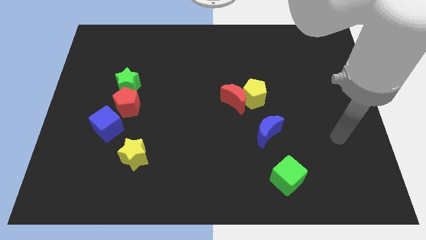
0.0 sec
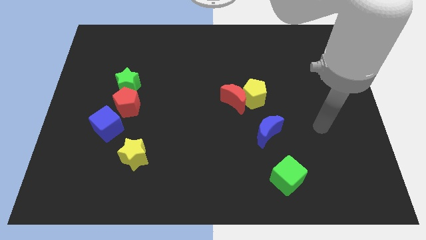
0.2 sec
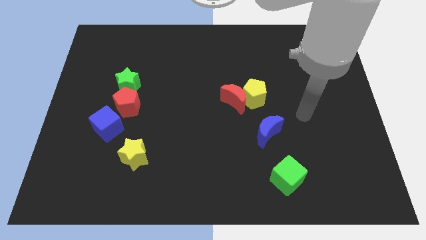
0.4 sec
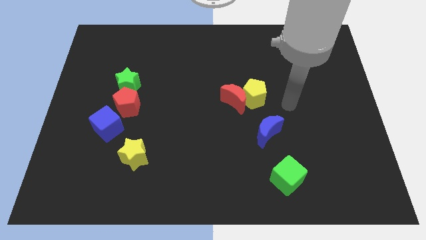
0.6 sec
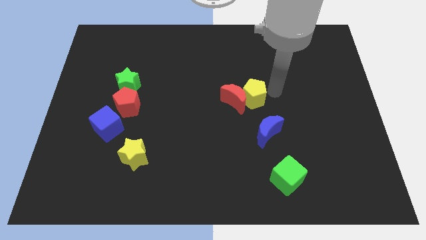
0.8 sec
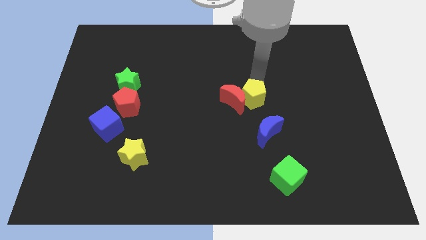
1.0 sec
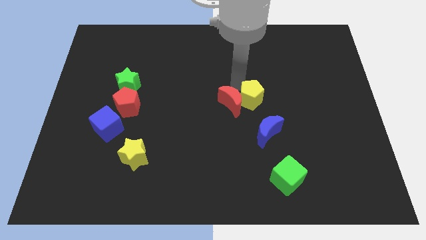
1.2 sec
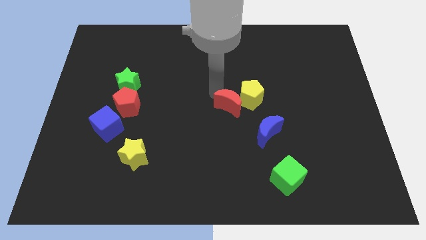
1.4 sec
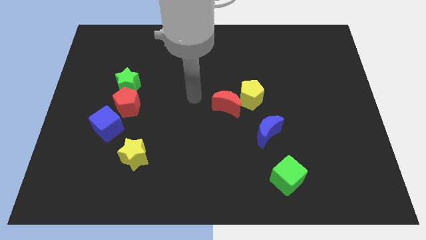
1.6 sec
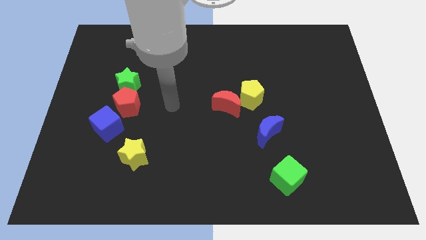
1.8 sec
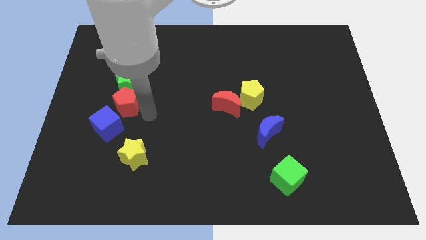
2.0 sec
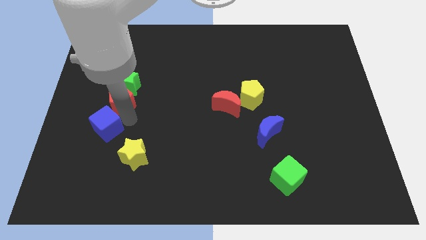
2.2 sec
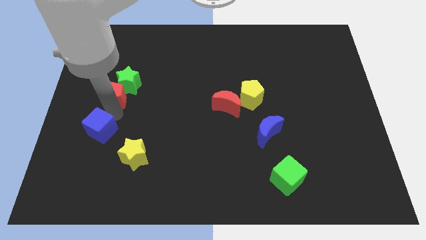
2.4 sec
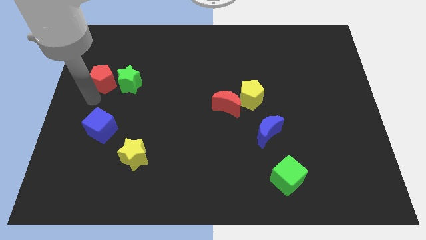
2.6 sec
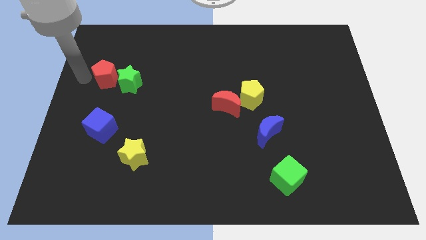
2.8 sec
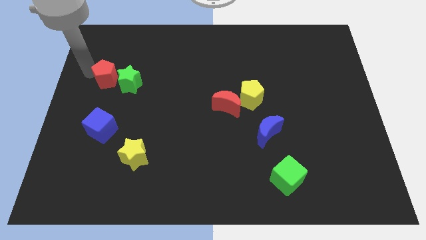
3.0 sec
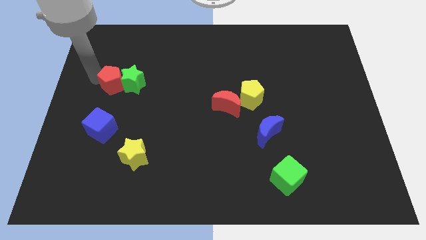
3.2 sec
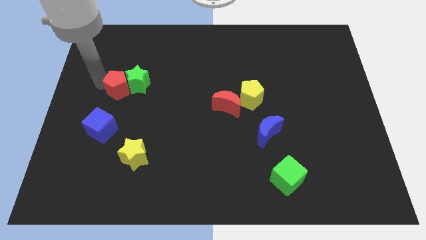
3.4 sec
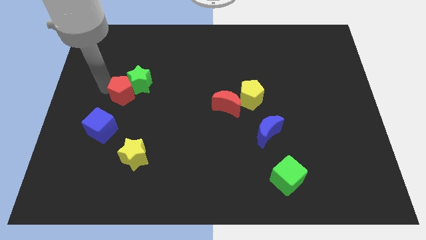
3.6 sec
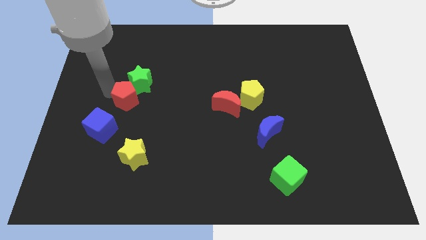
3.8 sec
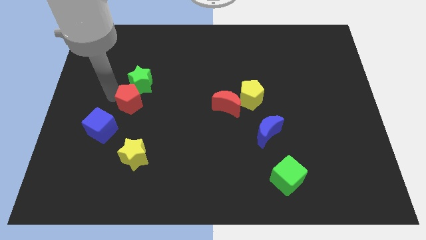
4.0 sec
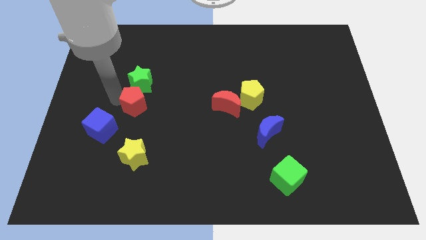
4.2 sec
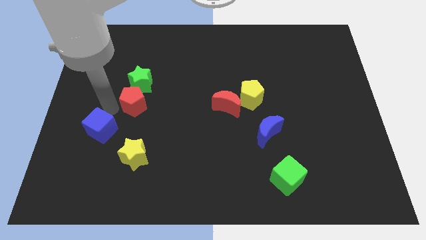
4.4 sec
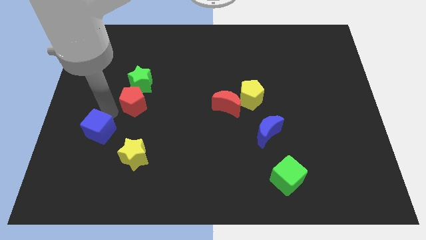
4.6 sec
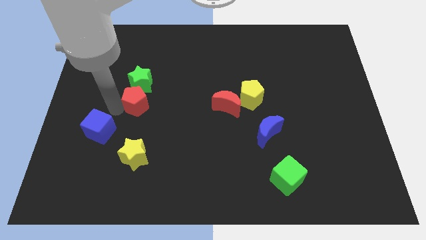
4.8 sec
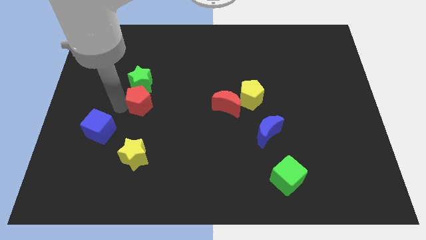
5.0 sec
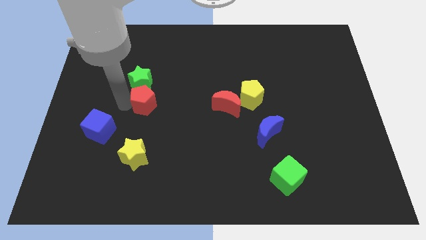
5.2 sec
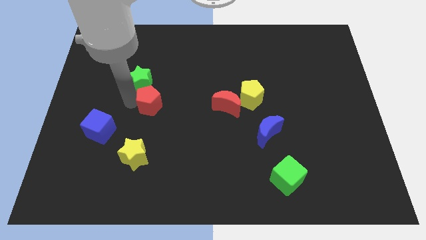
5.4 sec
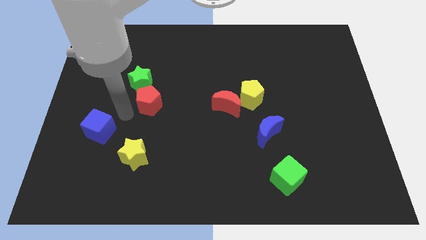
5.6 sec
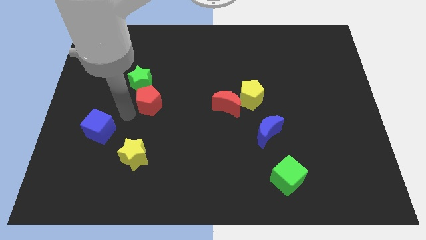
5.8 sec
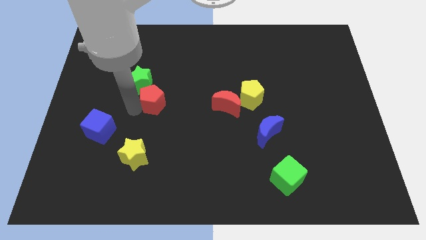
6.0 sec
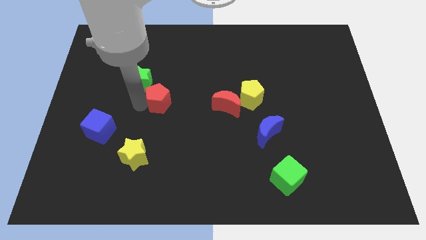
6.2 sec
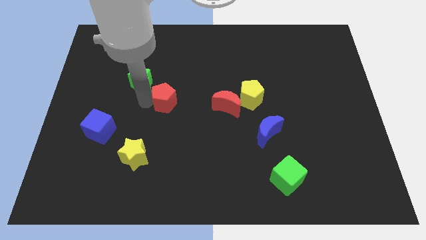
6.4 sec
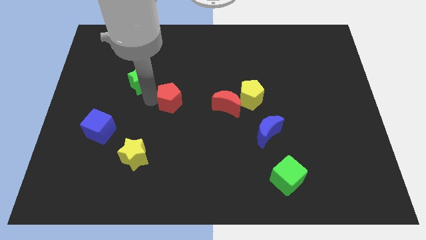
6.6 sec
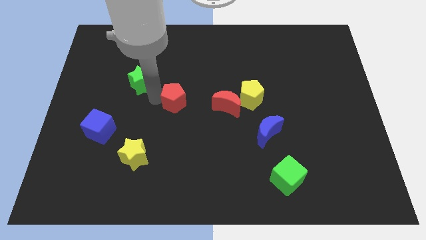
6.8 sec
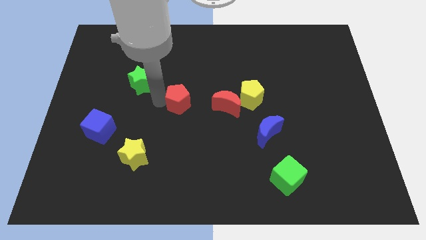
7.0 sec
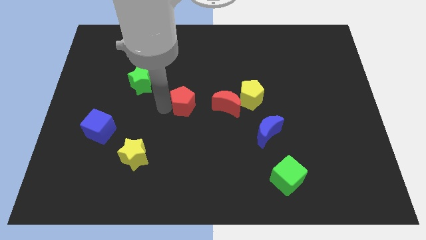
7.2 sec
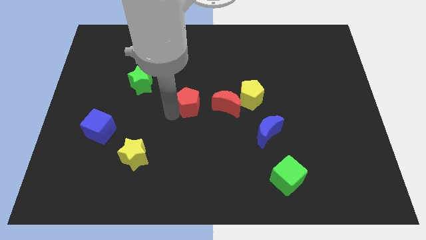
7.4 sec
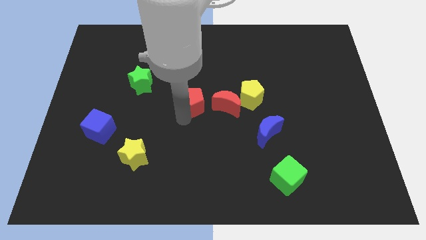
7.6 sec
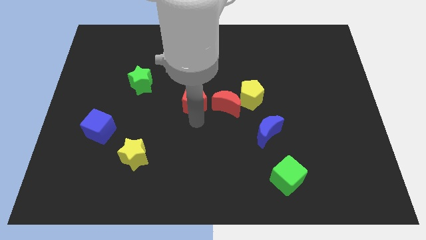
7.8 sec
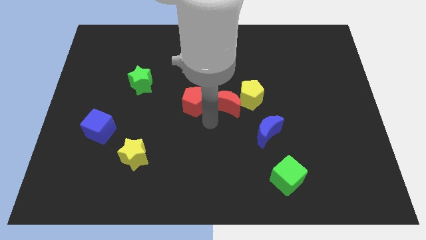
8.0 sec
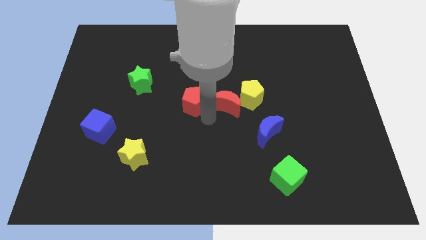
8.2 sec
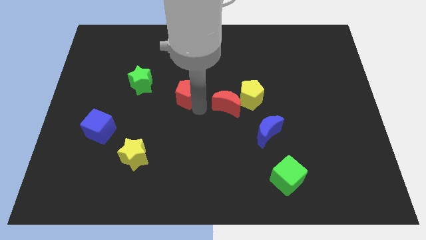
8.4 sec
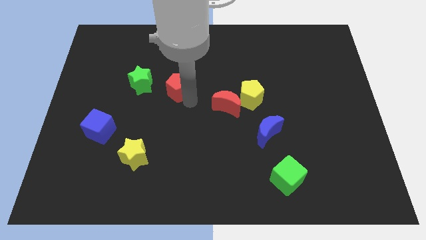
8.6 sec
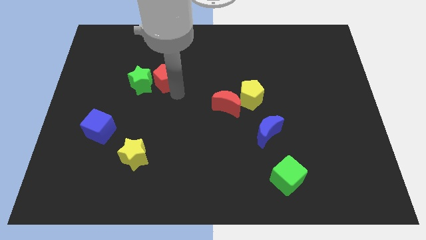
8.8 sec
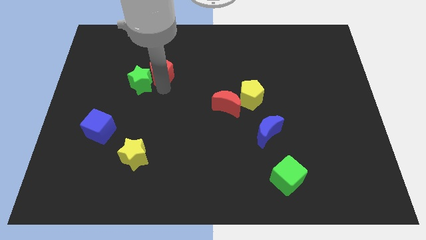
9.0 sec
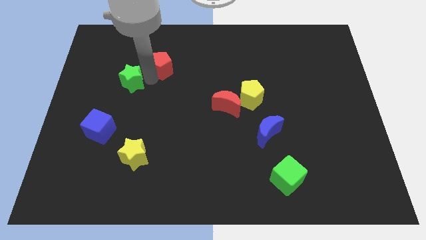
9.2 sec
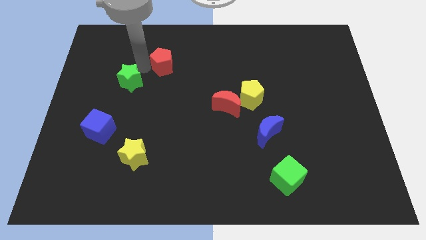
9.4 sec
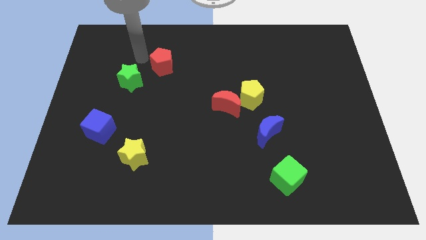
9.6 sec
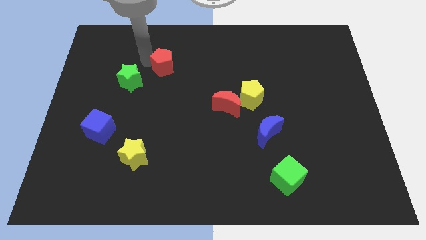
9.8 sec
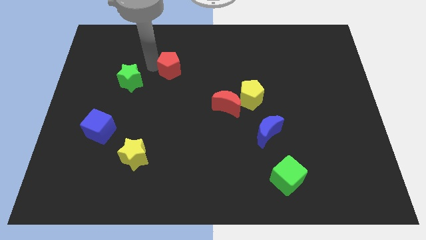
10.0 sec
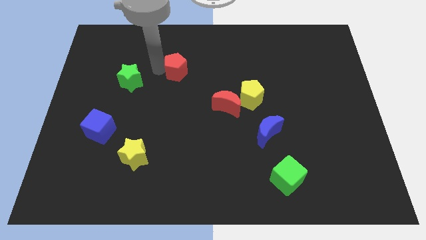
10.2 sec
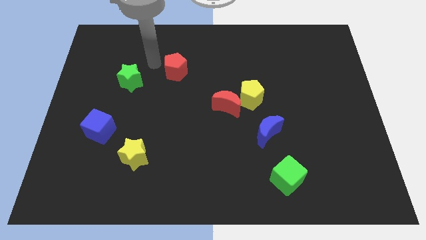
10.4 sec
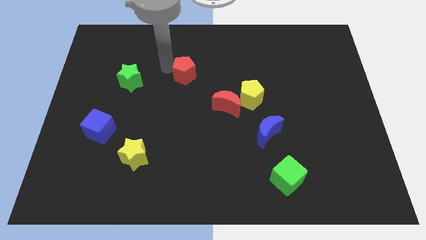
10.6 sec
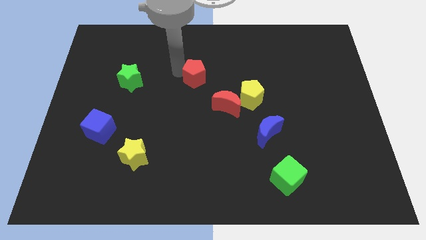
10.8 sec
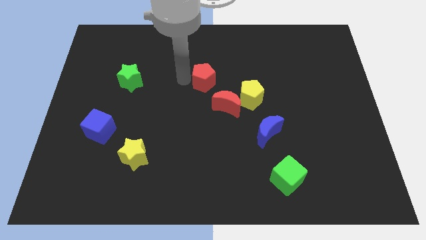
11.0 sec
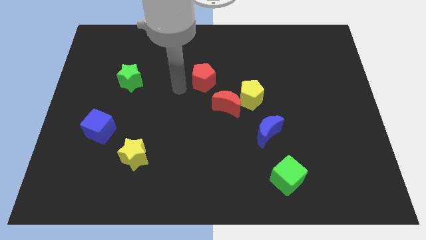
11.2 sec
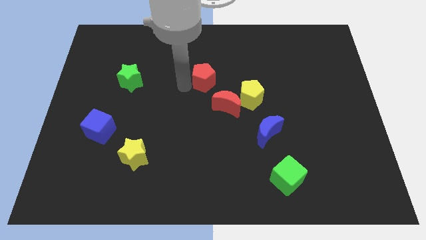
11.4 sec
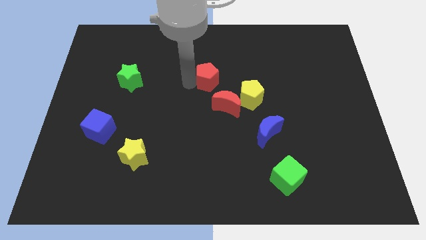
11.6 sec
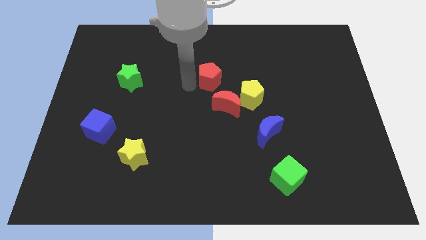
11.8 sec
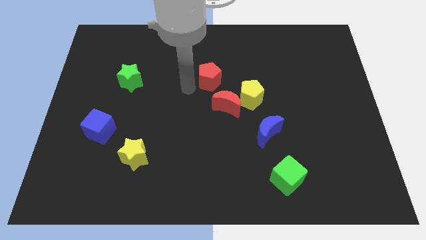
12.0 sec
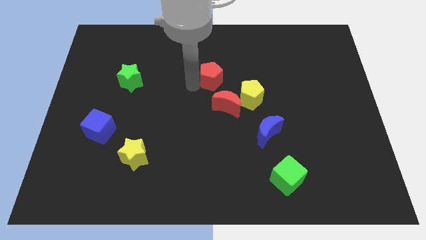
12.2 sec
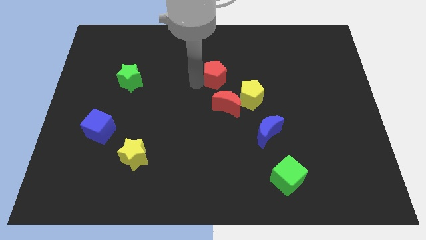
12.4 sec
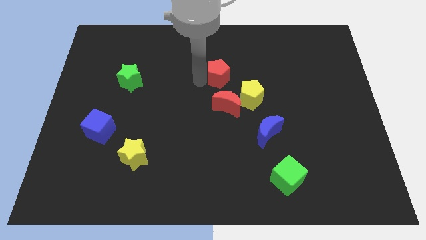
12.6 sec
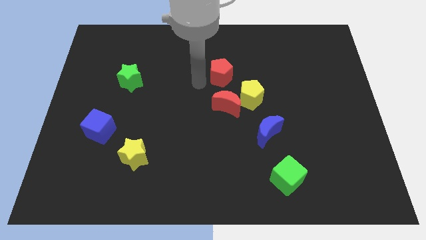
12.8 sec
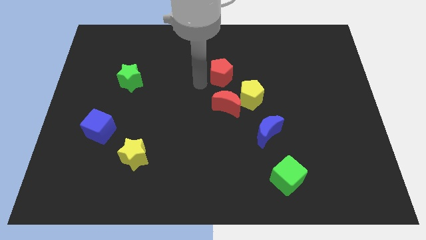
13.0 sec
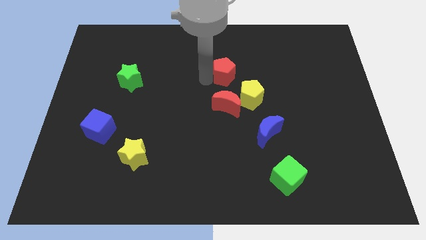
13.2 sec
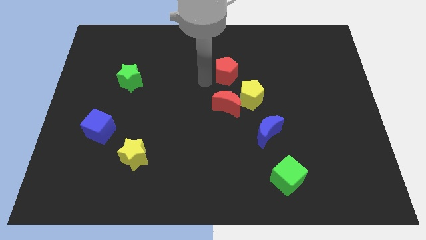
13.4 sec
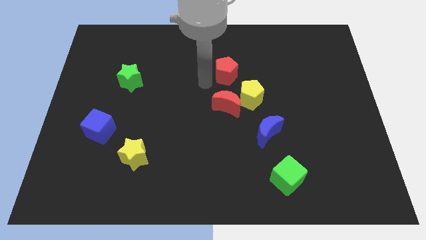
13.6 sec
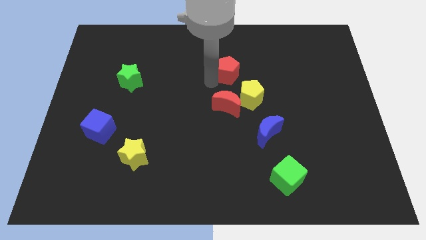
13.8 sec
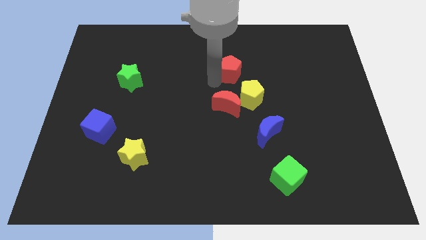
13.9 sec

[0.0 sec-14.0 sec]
slide the red pentagon to the top of the yellow pentagon
